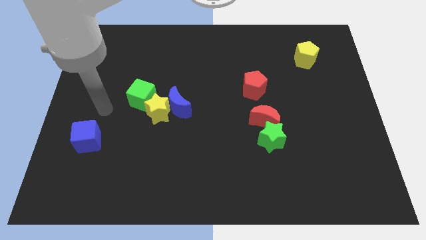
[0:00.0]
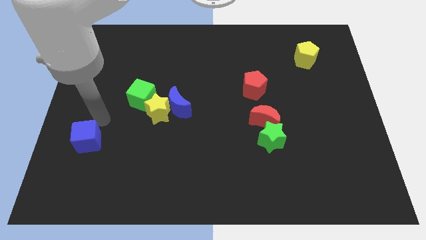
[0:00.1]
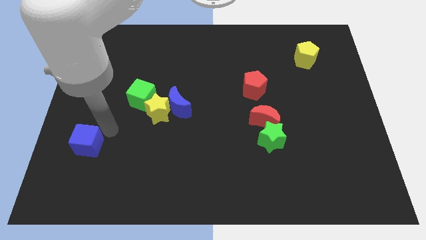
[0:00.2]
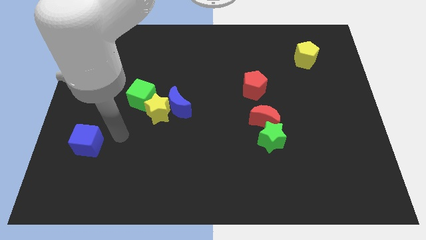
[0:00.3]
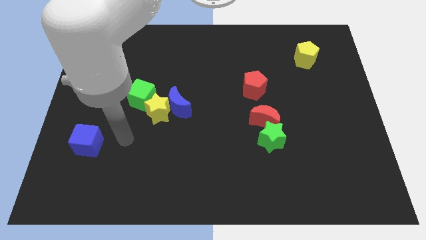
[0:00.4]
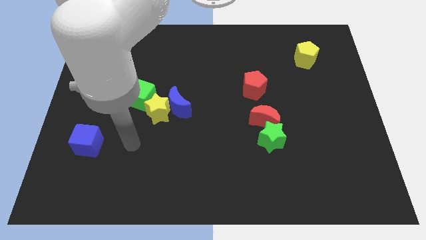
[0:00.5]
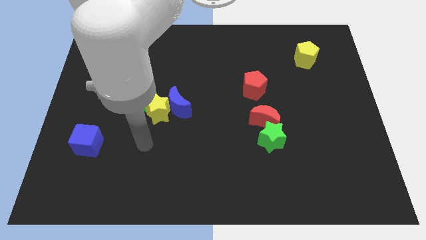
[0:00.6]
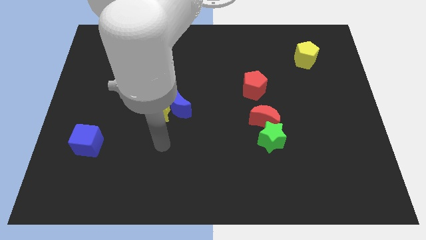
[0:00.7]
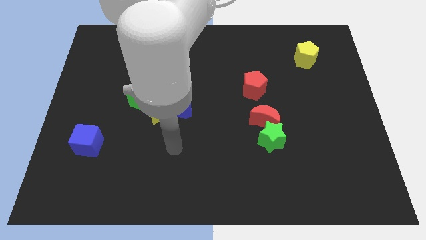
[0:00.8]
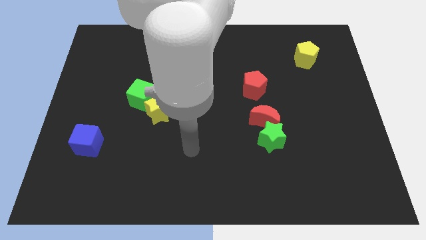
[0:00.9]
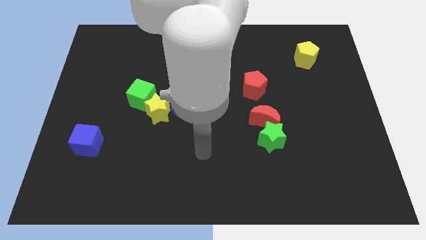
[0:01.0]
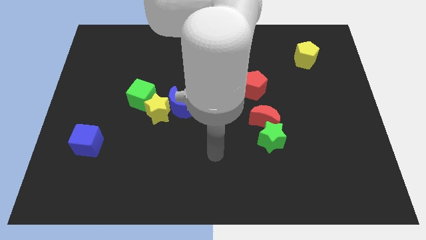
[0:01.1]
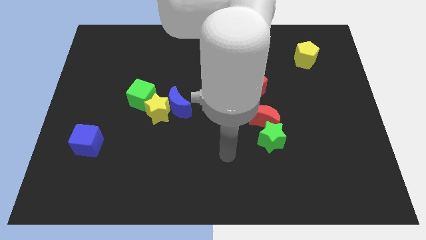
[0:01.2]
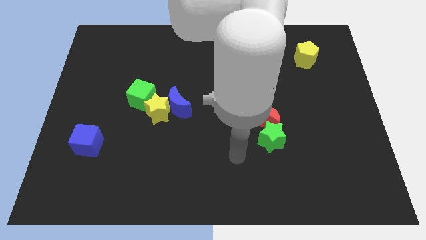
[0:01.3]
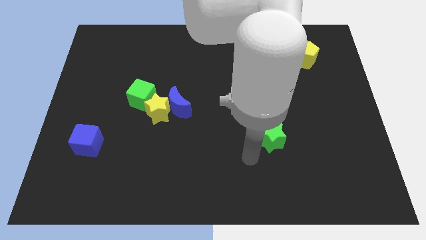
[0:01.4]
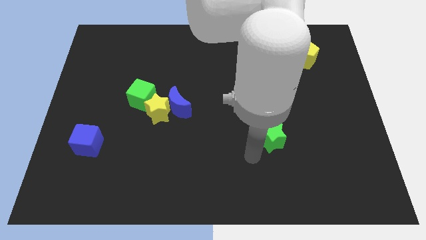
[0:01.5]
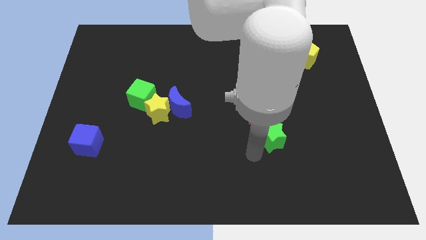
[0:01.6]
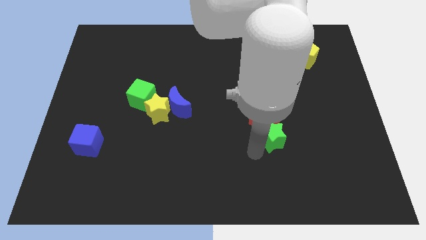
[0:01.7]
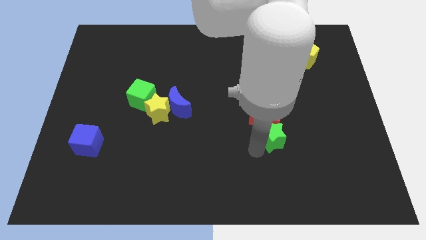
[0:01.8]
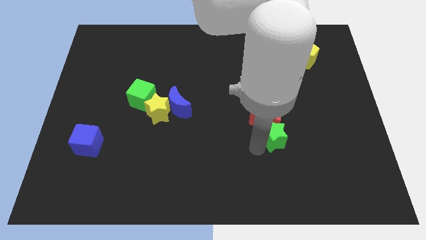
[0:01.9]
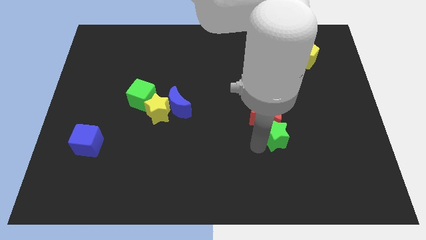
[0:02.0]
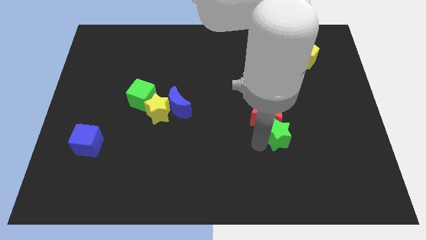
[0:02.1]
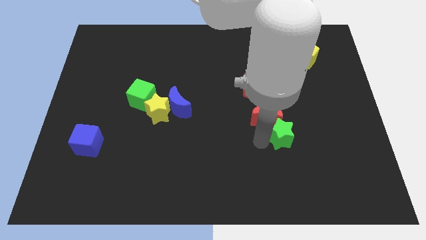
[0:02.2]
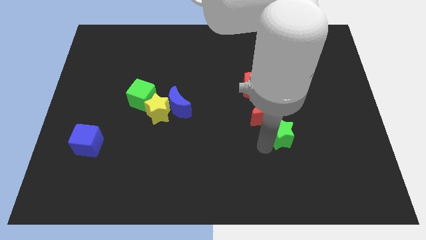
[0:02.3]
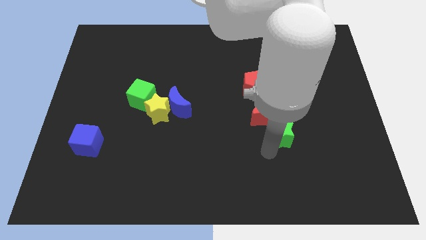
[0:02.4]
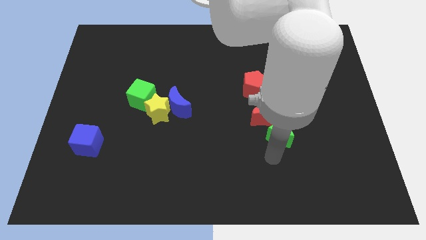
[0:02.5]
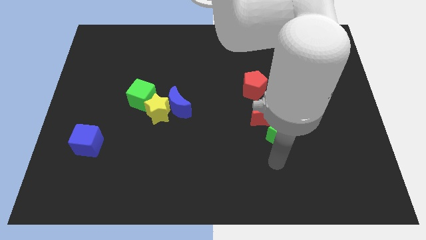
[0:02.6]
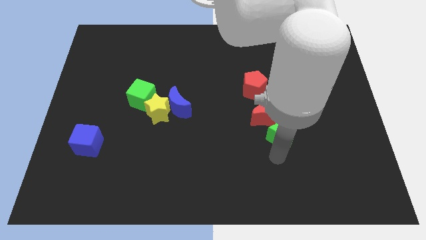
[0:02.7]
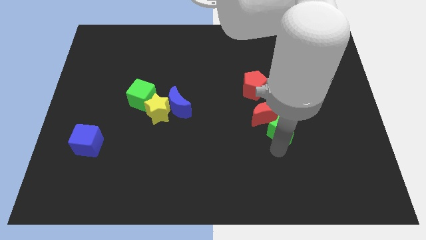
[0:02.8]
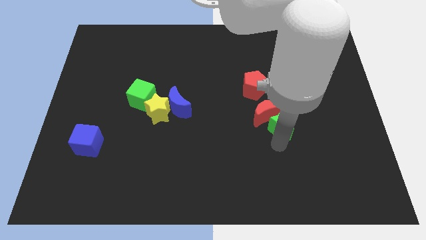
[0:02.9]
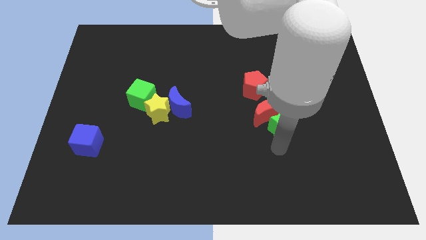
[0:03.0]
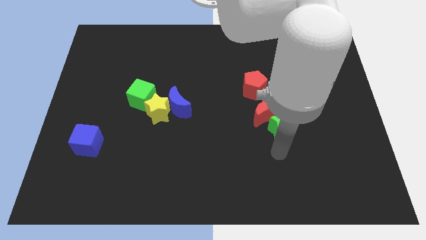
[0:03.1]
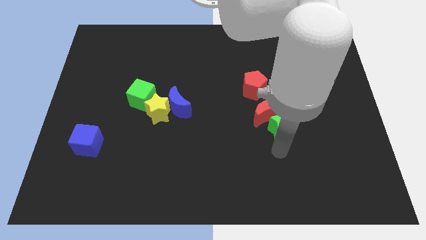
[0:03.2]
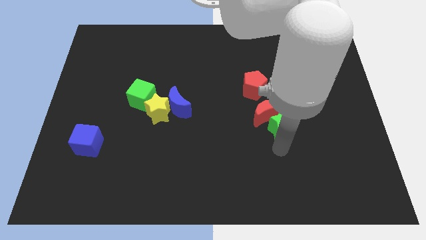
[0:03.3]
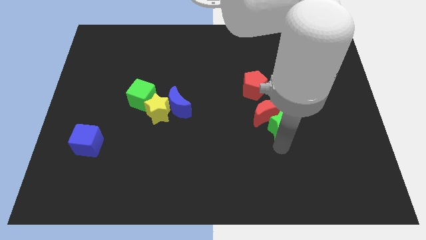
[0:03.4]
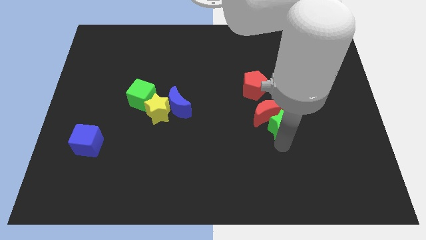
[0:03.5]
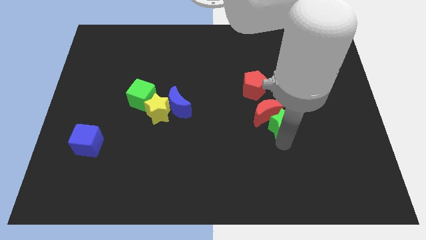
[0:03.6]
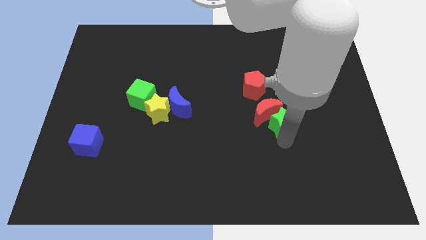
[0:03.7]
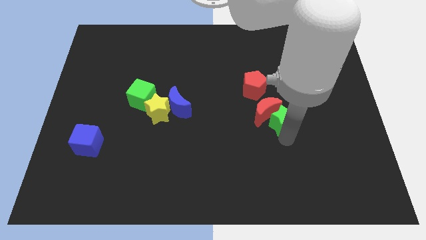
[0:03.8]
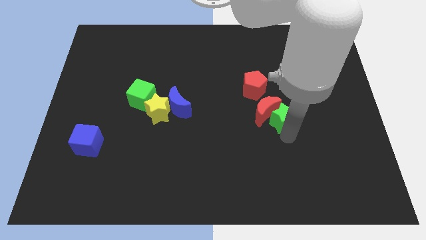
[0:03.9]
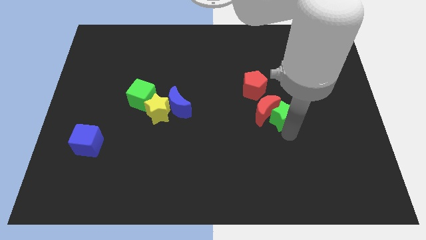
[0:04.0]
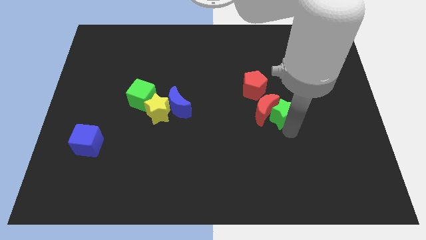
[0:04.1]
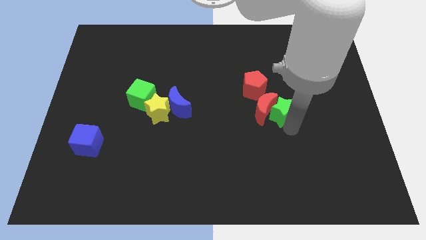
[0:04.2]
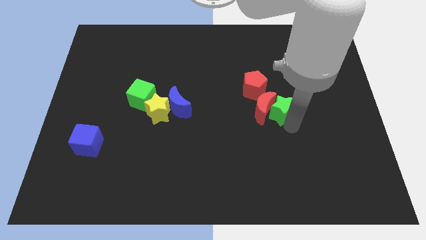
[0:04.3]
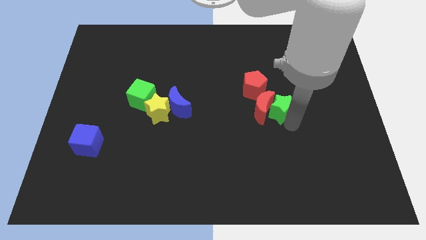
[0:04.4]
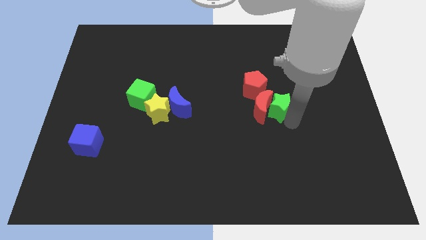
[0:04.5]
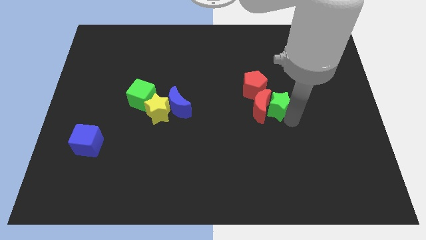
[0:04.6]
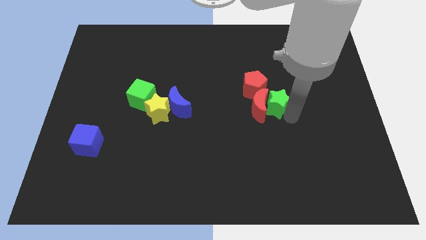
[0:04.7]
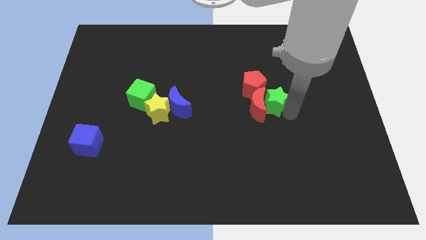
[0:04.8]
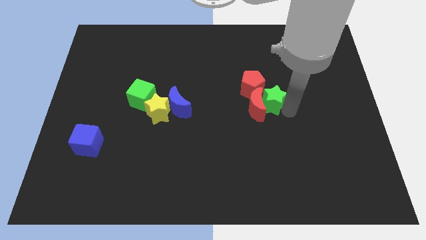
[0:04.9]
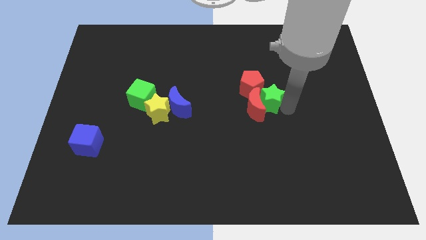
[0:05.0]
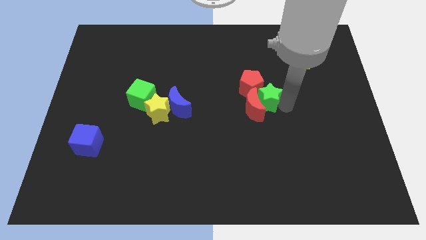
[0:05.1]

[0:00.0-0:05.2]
push the green star close to the red pentagon

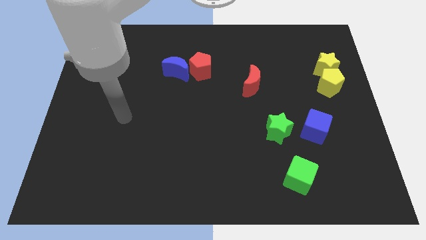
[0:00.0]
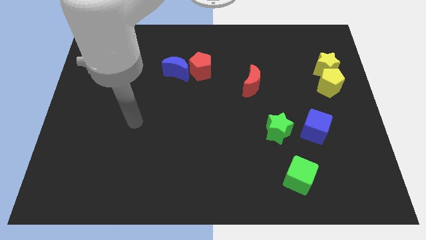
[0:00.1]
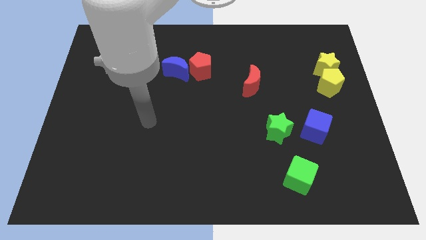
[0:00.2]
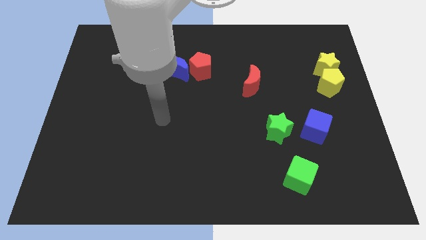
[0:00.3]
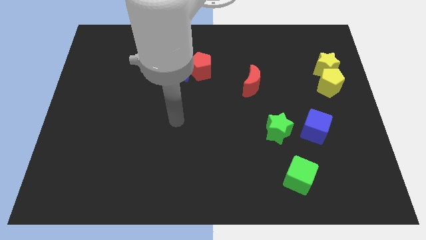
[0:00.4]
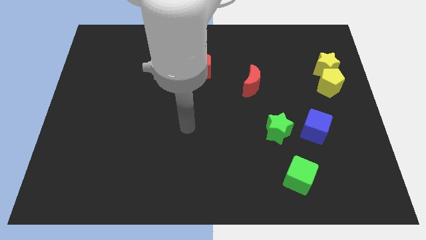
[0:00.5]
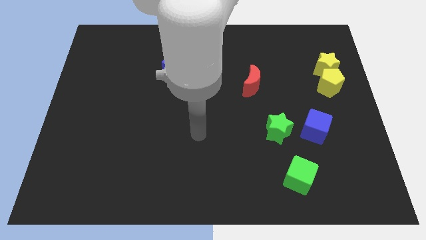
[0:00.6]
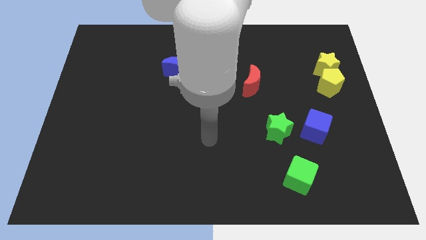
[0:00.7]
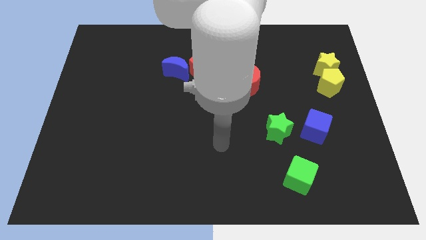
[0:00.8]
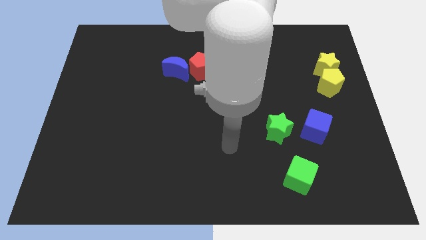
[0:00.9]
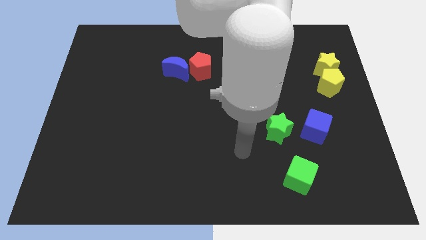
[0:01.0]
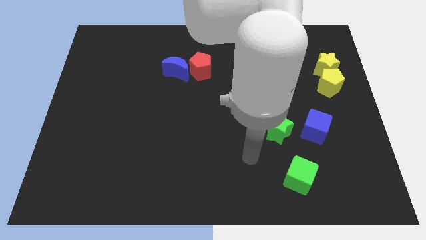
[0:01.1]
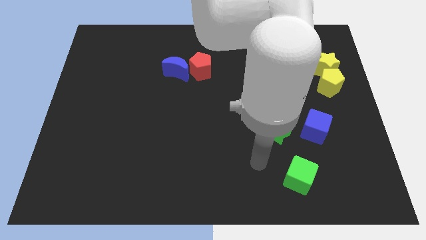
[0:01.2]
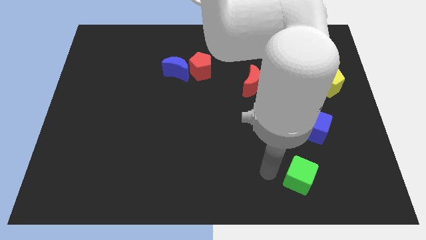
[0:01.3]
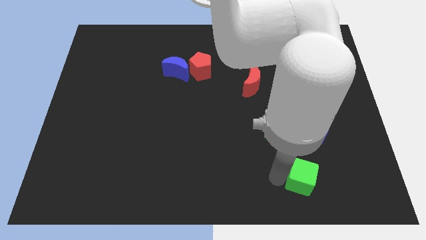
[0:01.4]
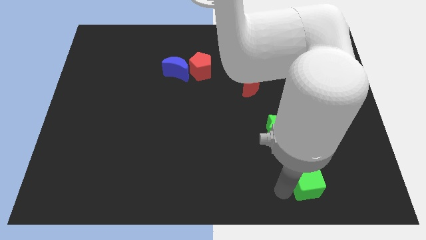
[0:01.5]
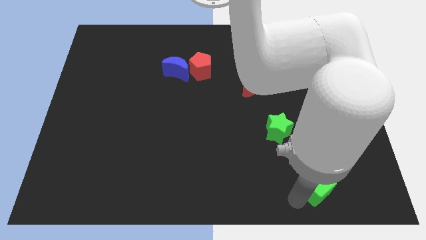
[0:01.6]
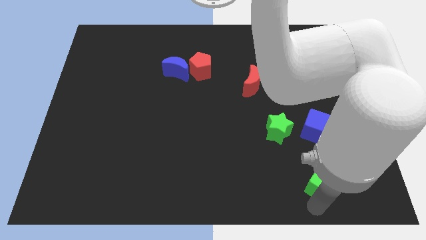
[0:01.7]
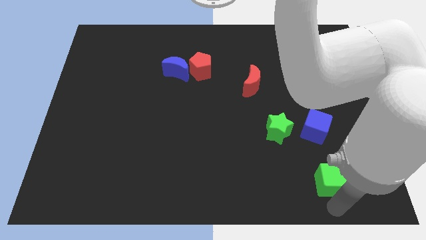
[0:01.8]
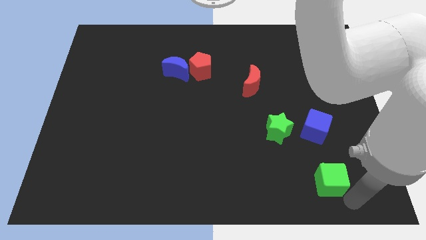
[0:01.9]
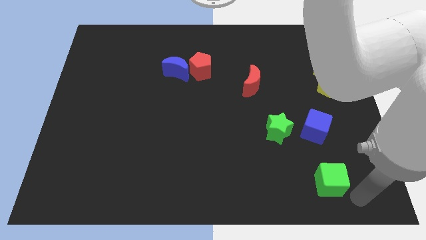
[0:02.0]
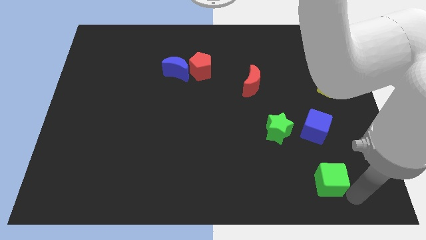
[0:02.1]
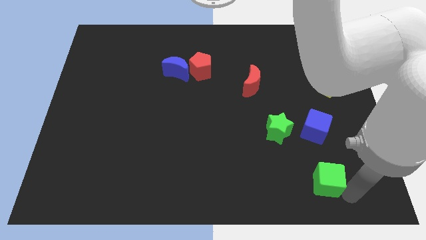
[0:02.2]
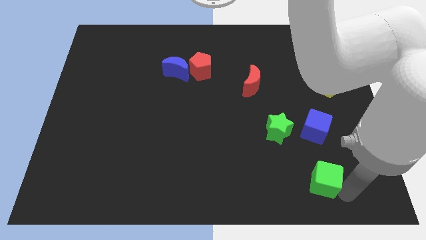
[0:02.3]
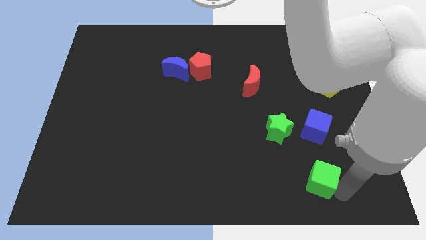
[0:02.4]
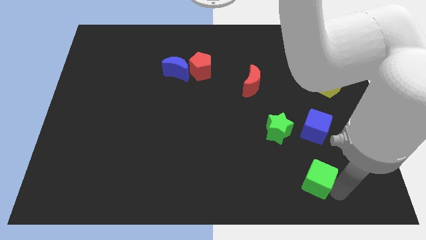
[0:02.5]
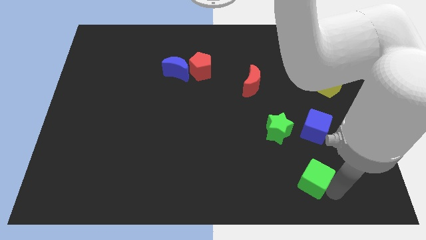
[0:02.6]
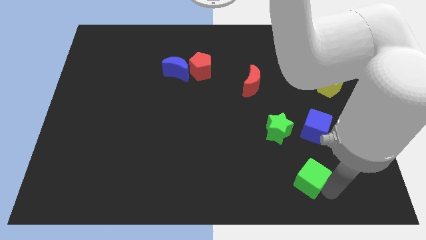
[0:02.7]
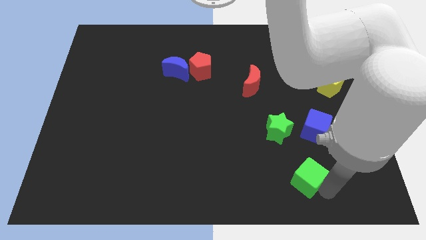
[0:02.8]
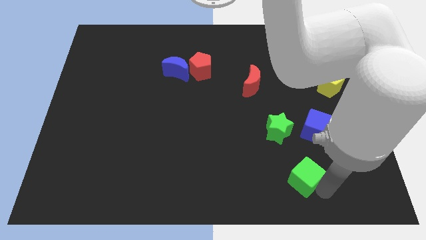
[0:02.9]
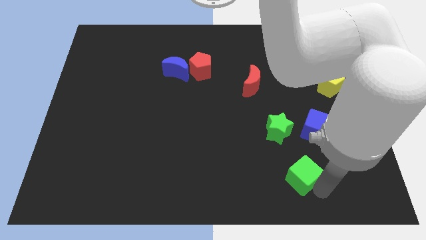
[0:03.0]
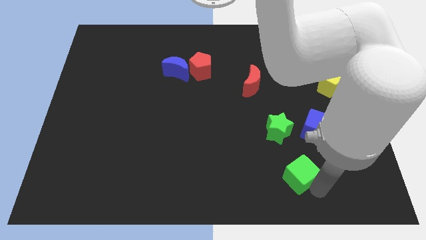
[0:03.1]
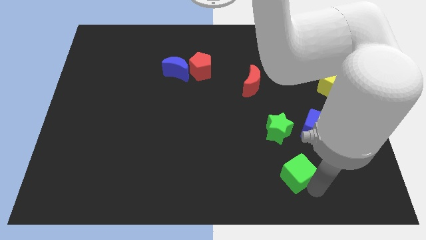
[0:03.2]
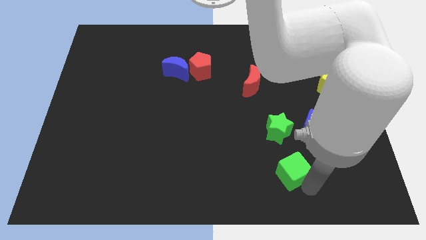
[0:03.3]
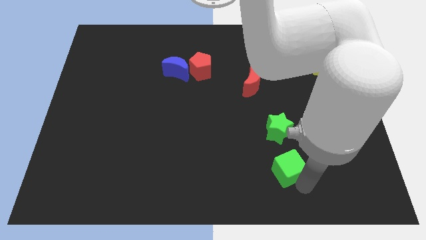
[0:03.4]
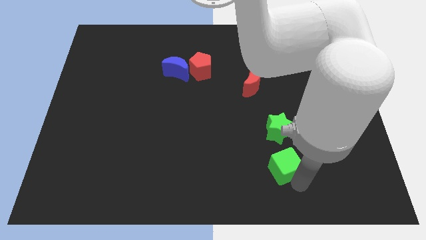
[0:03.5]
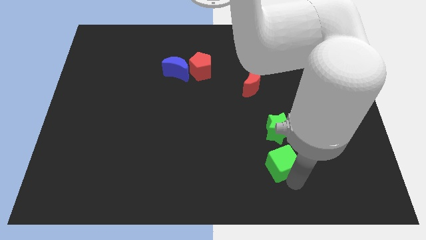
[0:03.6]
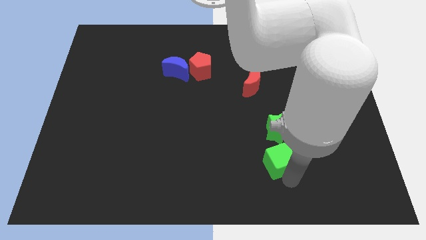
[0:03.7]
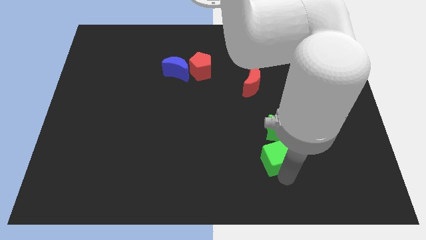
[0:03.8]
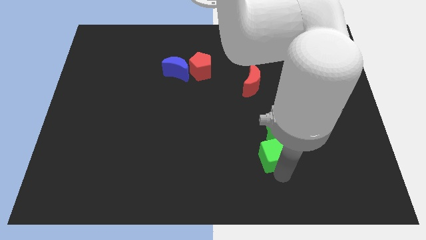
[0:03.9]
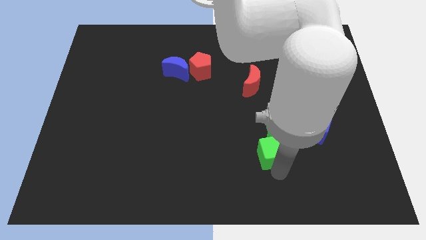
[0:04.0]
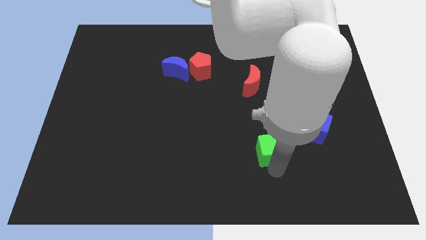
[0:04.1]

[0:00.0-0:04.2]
slide the green cube next to the green star
